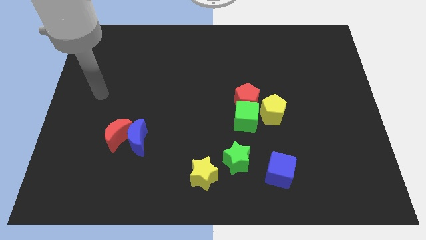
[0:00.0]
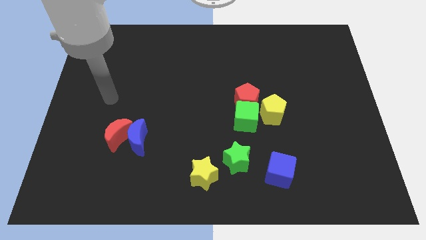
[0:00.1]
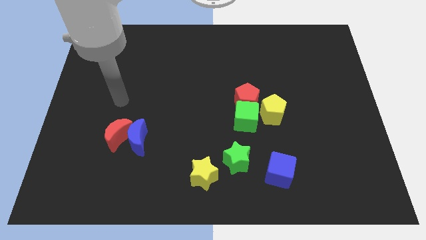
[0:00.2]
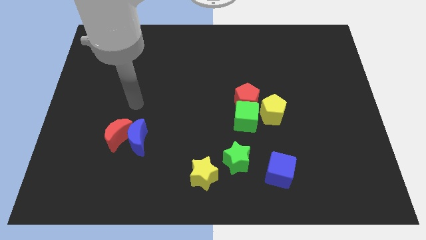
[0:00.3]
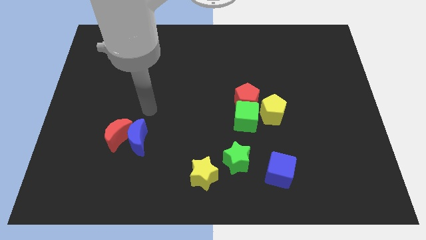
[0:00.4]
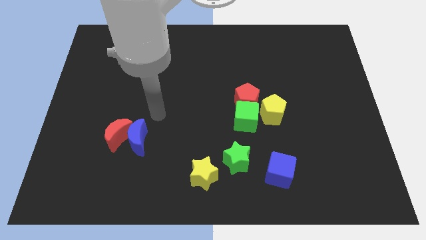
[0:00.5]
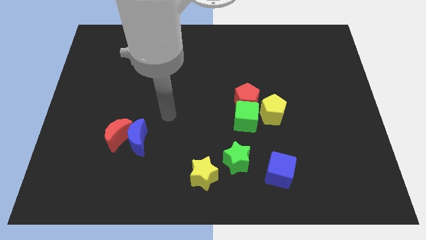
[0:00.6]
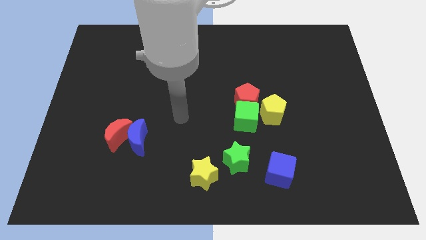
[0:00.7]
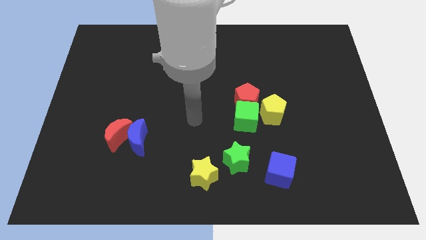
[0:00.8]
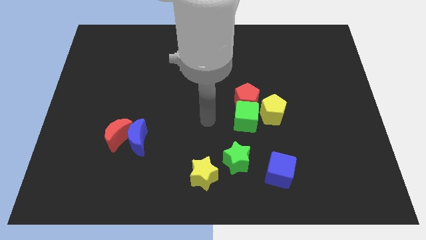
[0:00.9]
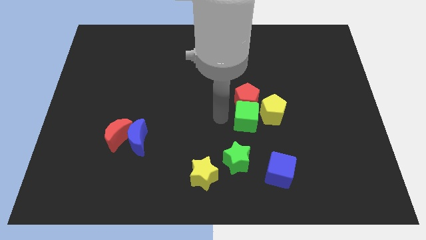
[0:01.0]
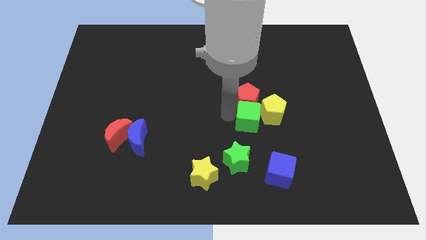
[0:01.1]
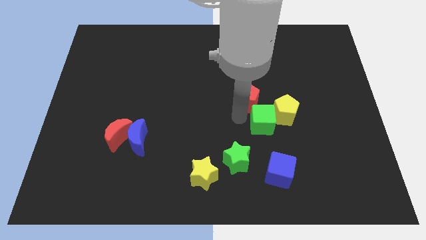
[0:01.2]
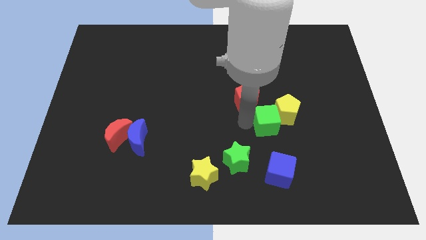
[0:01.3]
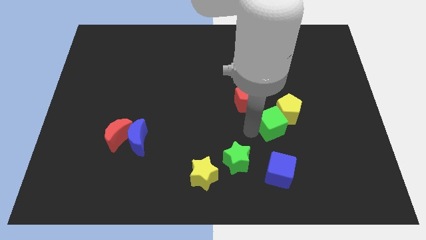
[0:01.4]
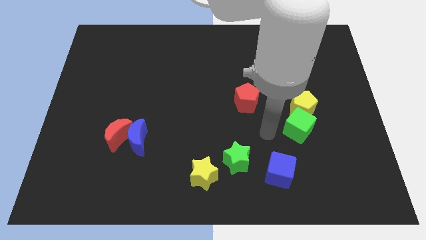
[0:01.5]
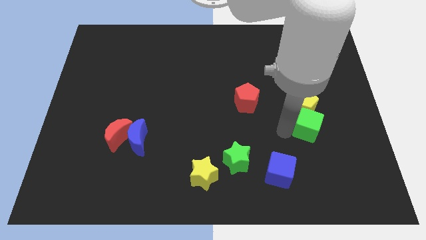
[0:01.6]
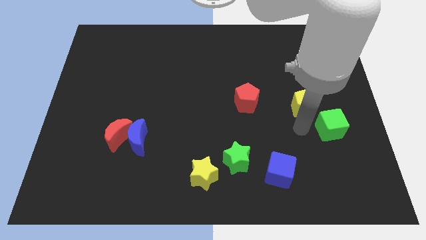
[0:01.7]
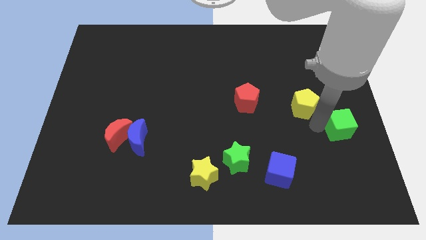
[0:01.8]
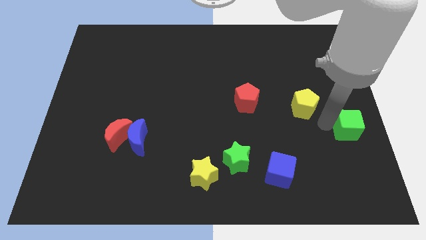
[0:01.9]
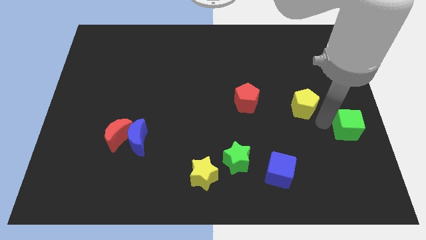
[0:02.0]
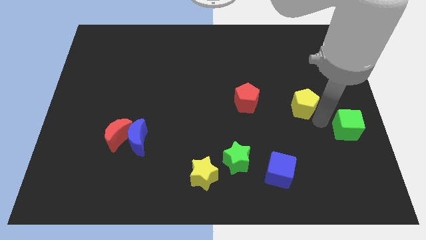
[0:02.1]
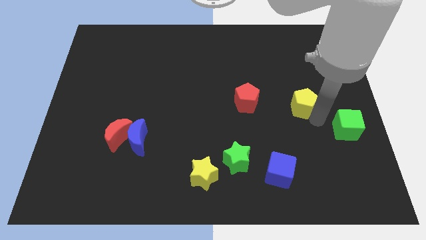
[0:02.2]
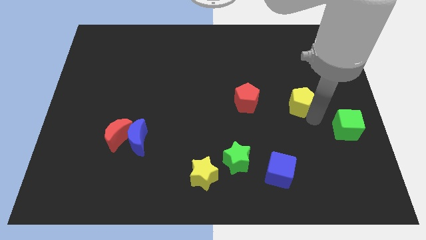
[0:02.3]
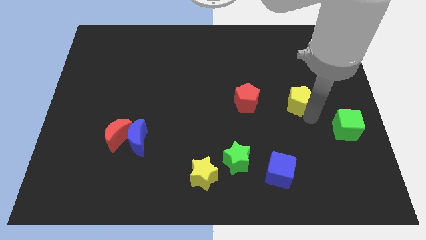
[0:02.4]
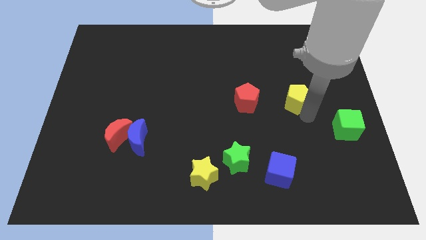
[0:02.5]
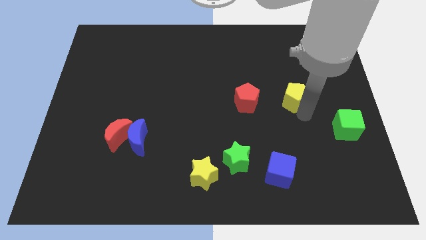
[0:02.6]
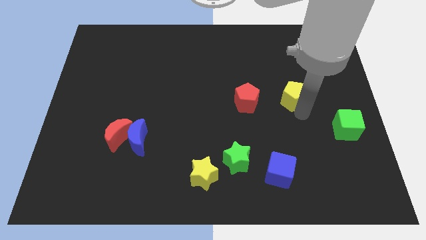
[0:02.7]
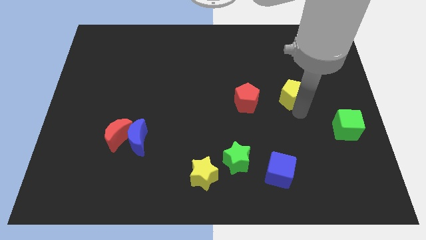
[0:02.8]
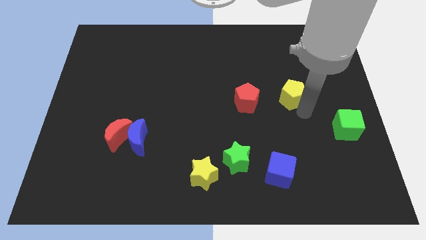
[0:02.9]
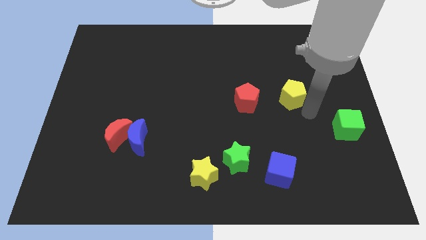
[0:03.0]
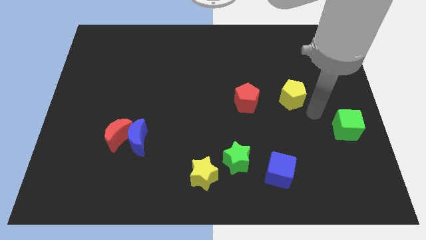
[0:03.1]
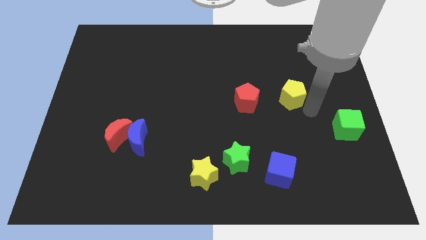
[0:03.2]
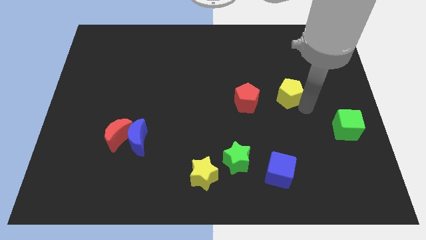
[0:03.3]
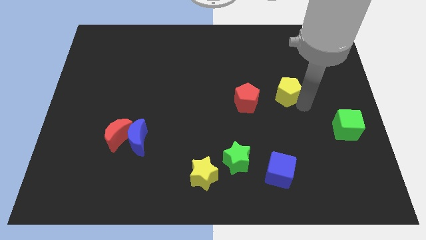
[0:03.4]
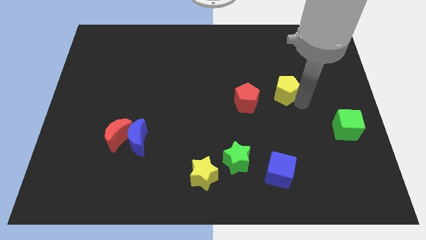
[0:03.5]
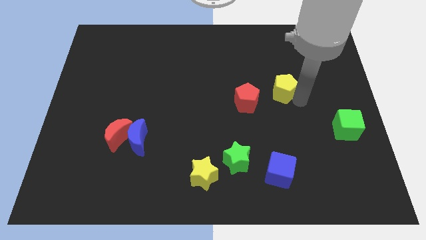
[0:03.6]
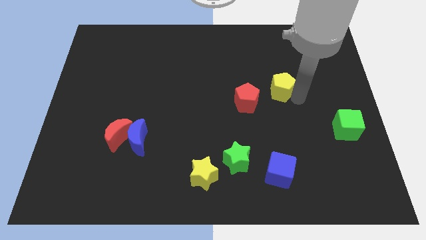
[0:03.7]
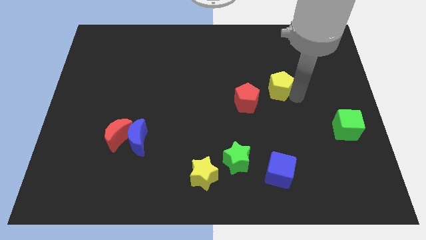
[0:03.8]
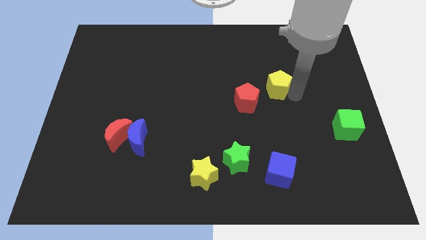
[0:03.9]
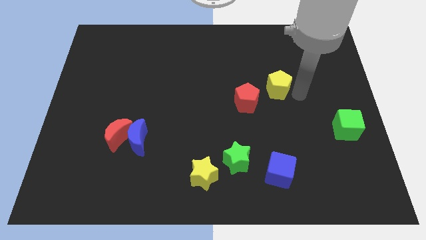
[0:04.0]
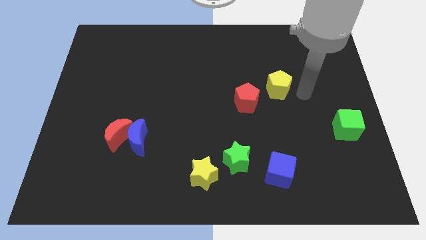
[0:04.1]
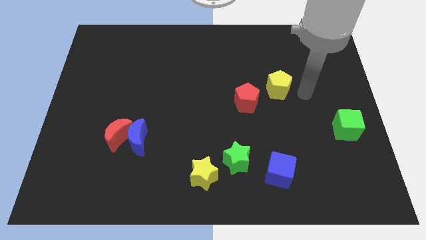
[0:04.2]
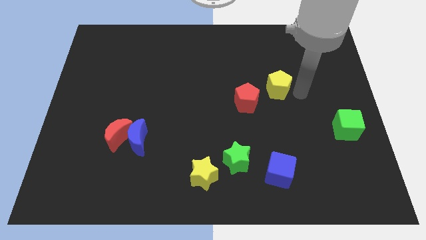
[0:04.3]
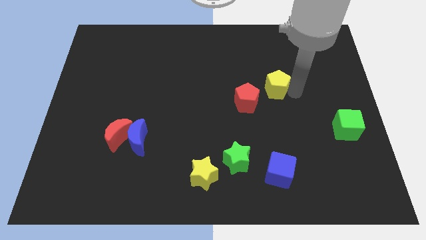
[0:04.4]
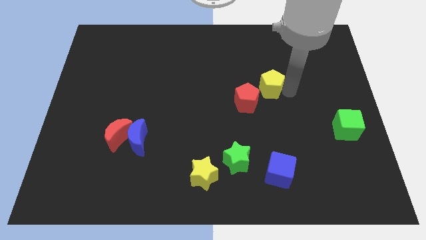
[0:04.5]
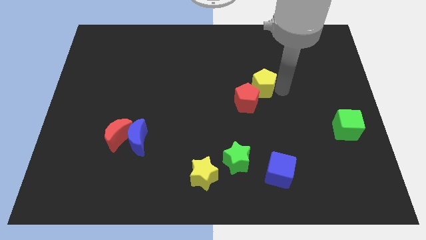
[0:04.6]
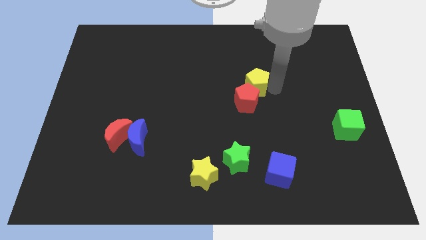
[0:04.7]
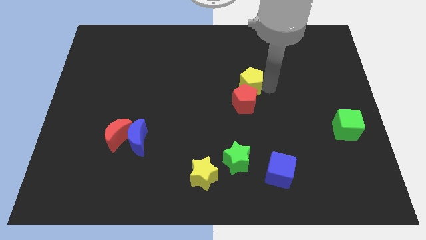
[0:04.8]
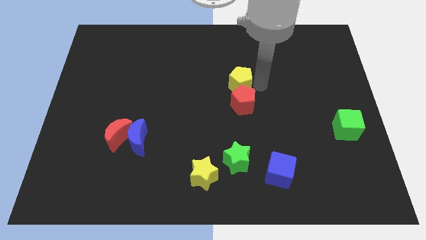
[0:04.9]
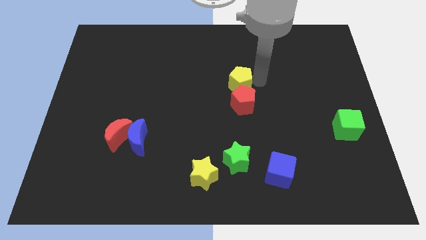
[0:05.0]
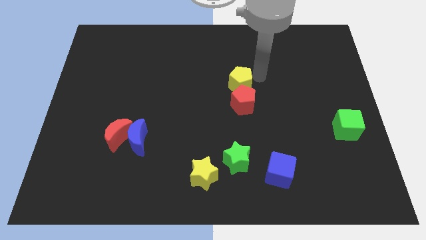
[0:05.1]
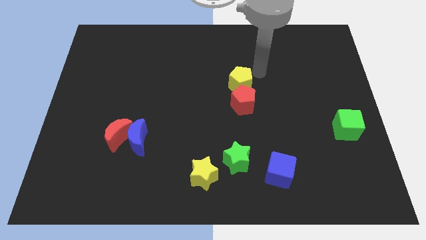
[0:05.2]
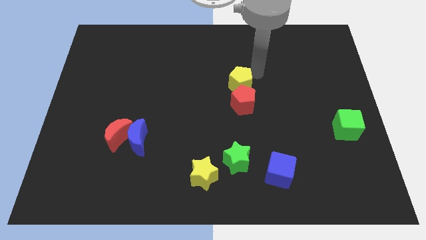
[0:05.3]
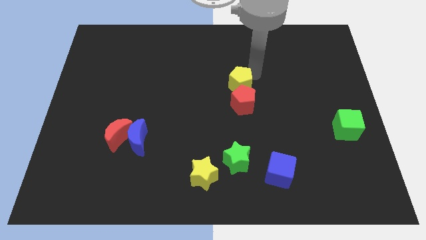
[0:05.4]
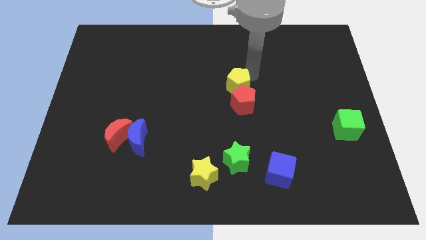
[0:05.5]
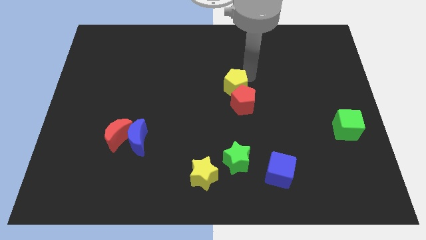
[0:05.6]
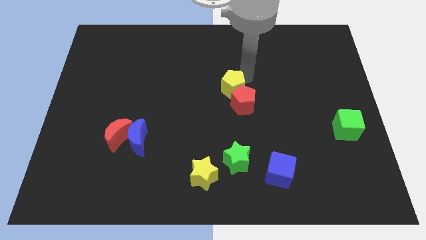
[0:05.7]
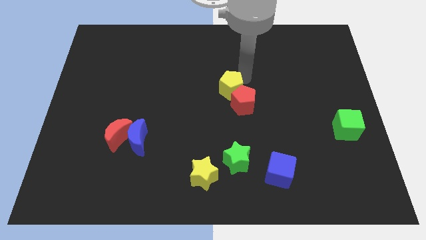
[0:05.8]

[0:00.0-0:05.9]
slightly move the yellow pentagon left

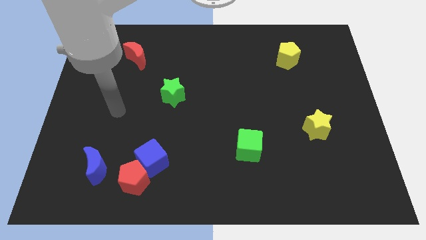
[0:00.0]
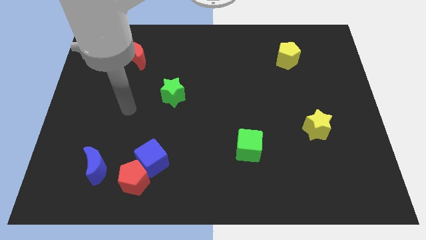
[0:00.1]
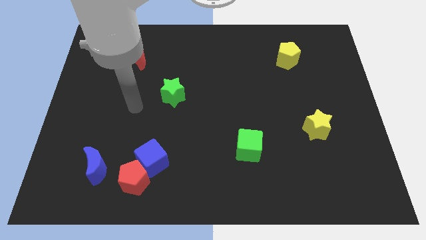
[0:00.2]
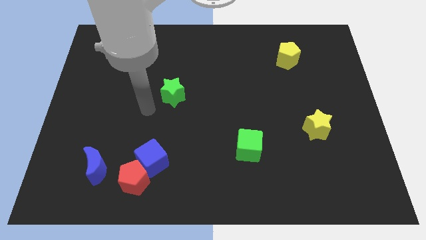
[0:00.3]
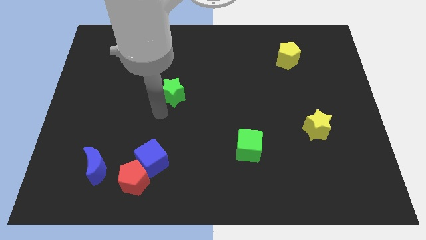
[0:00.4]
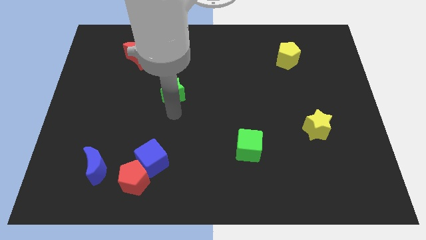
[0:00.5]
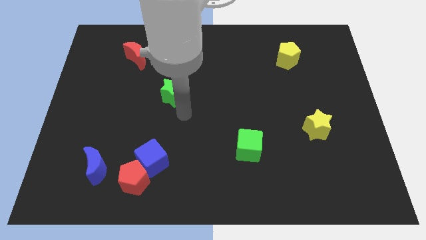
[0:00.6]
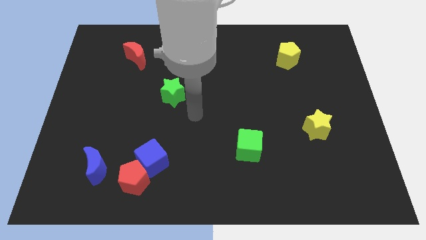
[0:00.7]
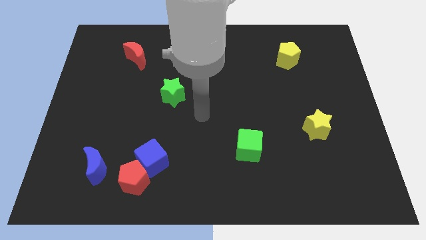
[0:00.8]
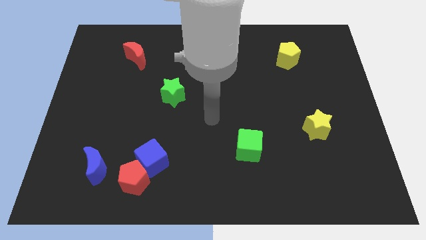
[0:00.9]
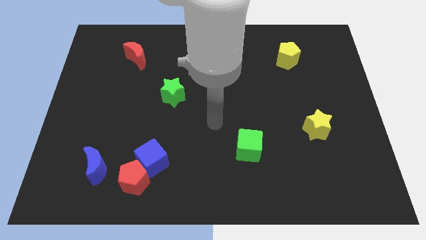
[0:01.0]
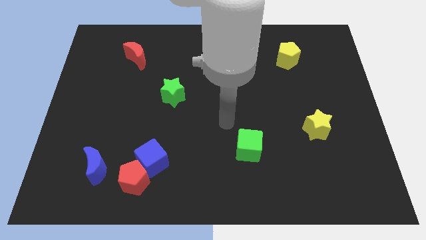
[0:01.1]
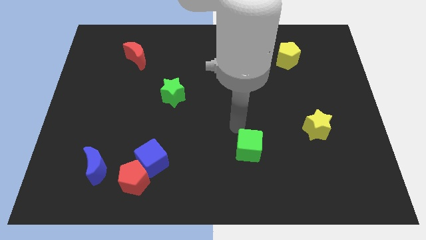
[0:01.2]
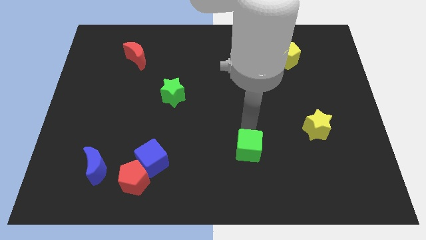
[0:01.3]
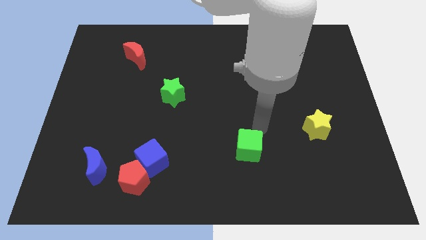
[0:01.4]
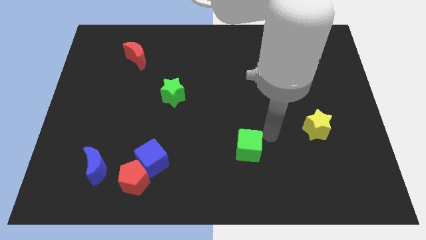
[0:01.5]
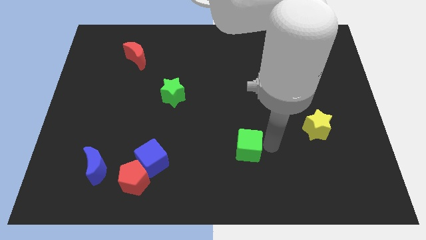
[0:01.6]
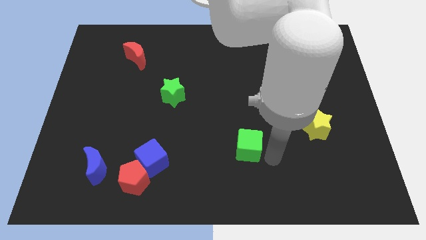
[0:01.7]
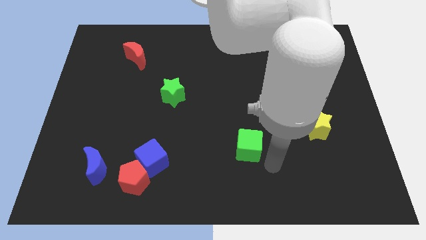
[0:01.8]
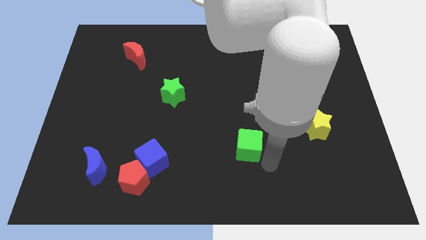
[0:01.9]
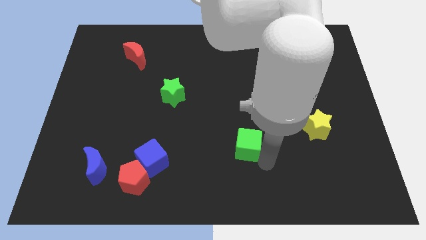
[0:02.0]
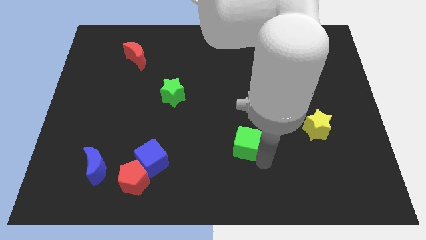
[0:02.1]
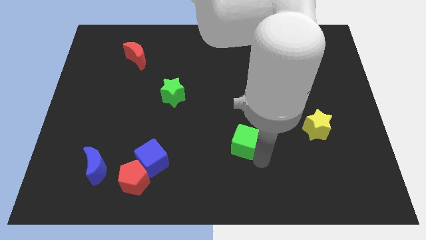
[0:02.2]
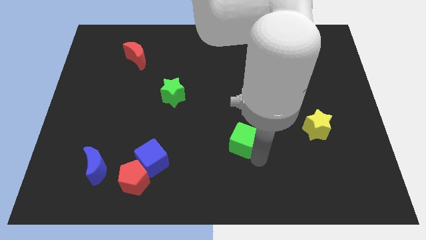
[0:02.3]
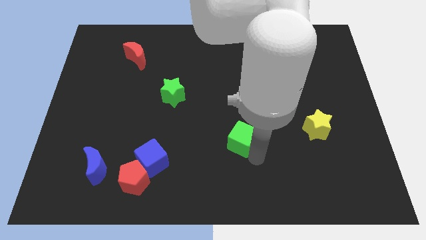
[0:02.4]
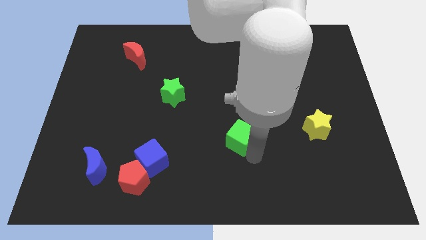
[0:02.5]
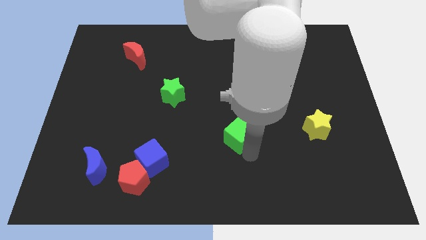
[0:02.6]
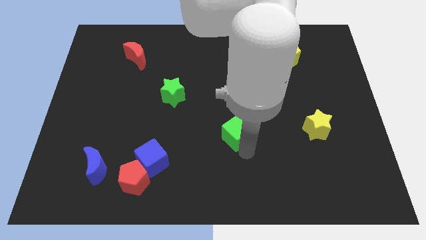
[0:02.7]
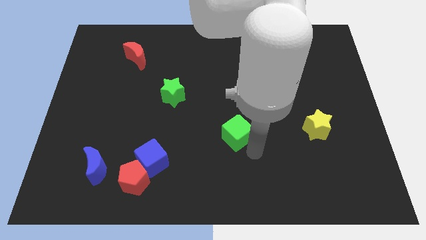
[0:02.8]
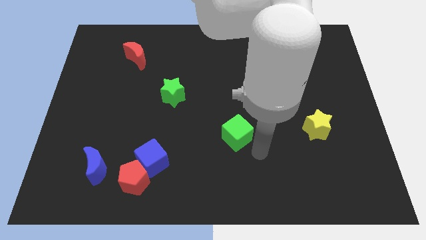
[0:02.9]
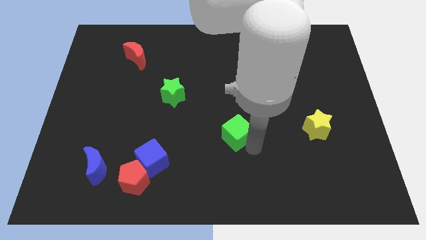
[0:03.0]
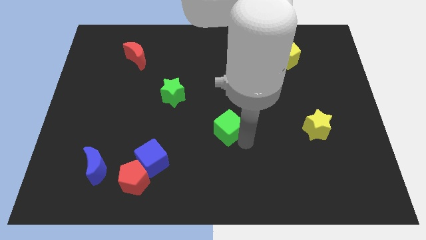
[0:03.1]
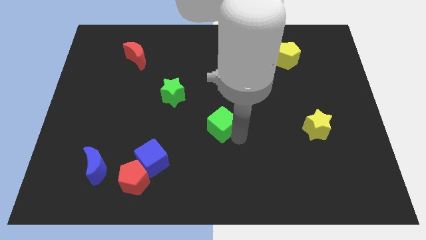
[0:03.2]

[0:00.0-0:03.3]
slightly move the green cube upwards and to the left diagonally
